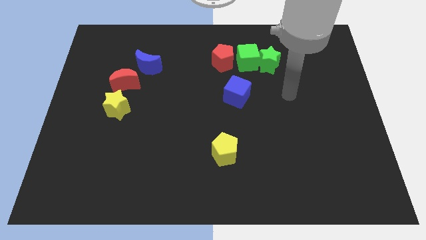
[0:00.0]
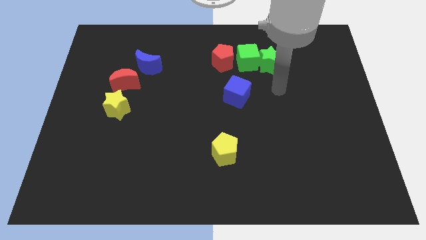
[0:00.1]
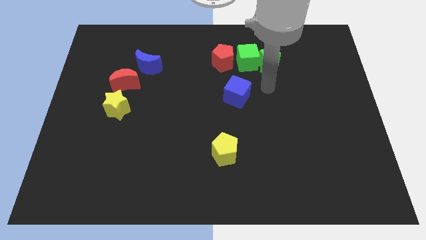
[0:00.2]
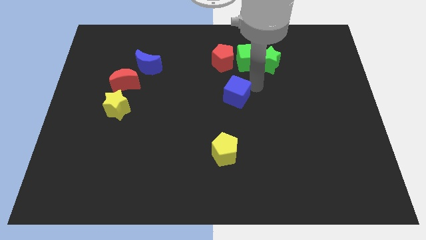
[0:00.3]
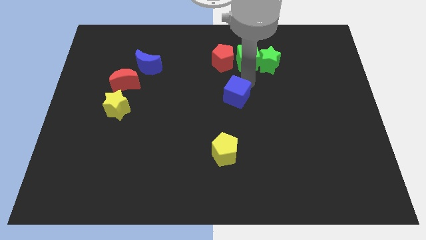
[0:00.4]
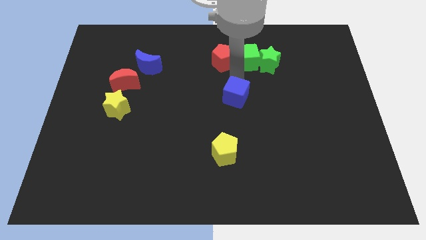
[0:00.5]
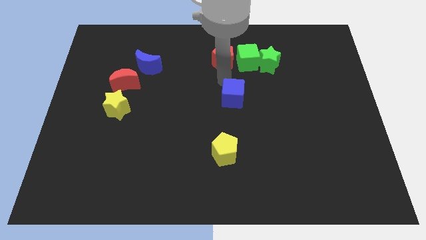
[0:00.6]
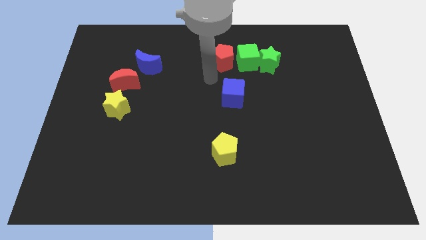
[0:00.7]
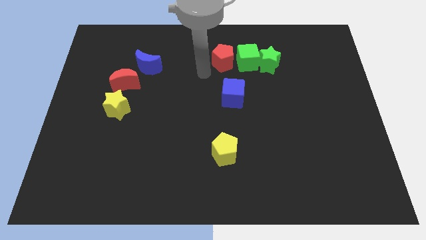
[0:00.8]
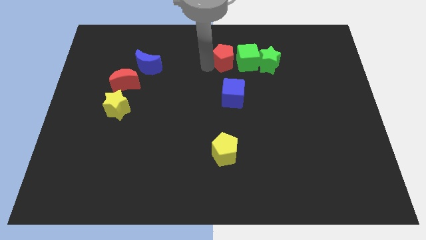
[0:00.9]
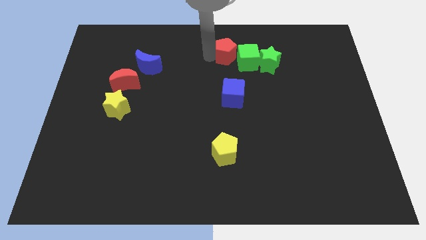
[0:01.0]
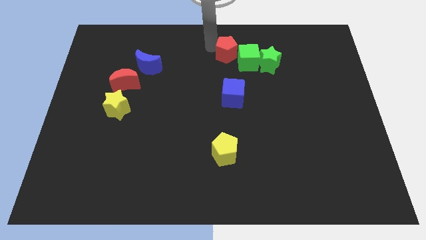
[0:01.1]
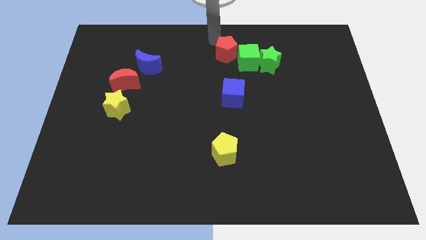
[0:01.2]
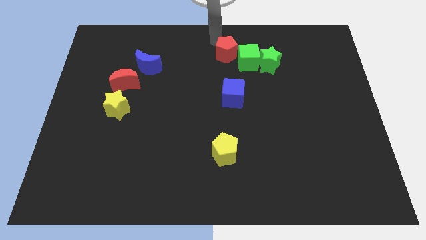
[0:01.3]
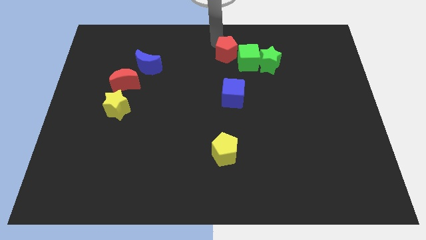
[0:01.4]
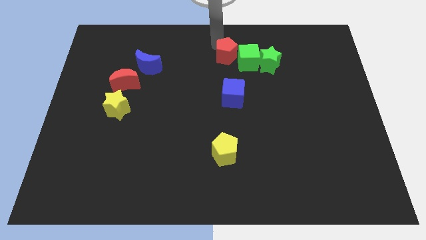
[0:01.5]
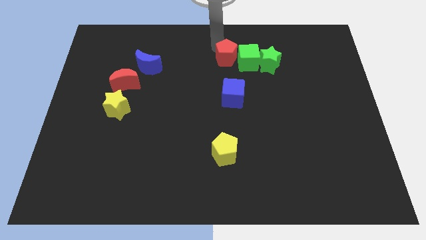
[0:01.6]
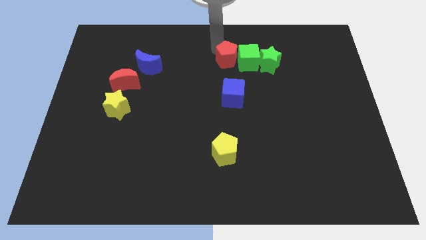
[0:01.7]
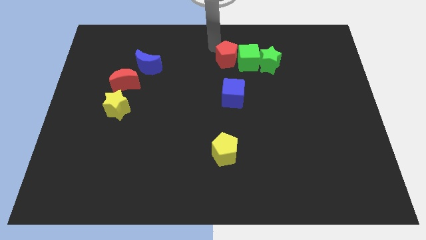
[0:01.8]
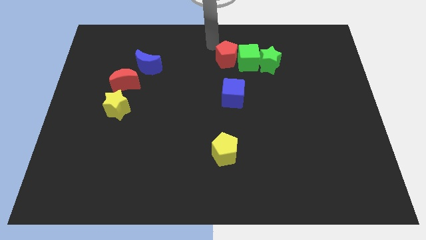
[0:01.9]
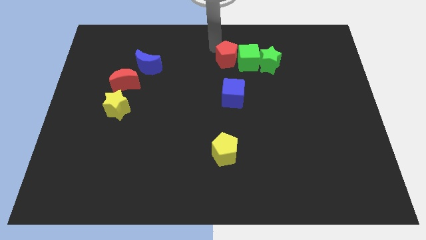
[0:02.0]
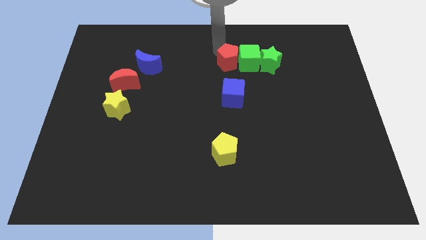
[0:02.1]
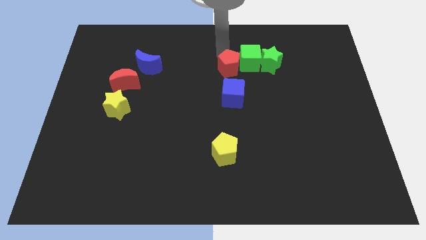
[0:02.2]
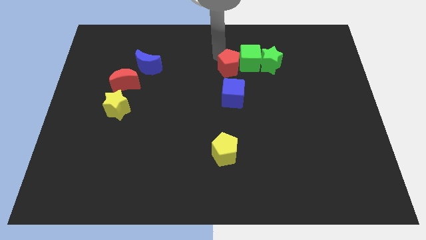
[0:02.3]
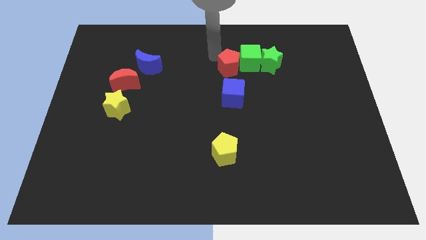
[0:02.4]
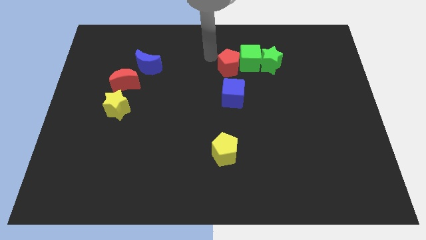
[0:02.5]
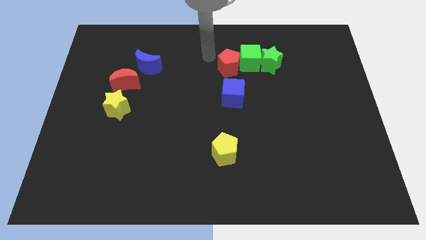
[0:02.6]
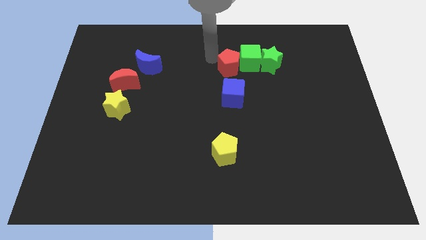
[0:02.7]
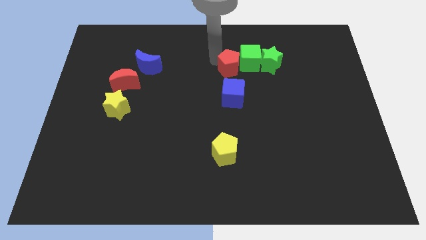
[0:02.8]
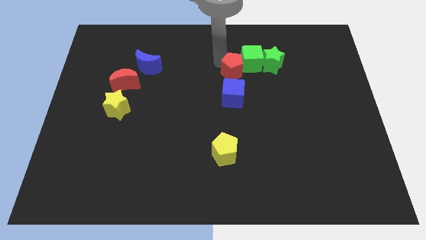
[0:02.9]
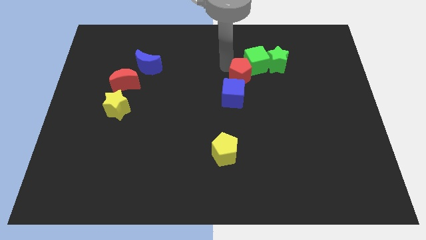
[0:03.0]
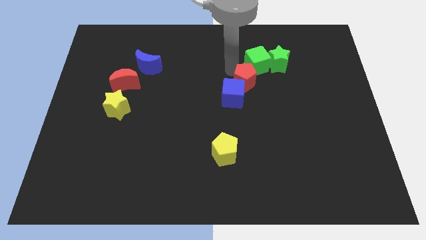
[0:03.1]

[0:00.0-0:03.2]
slightly slide the red pentagon diagonally downwards and right

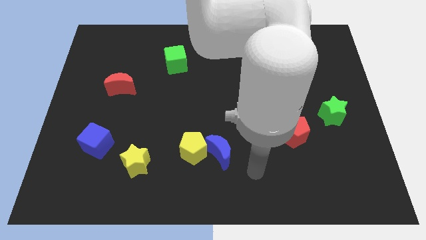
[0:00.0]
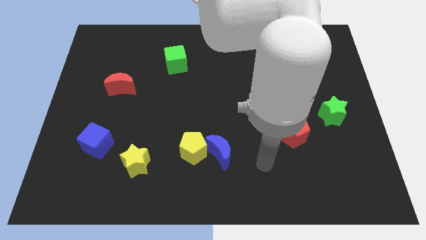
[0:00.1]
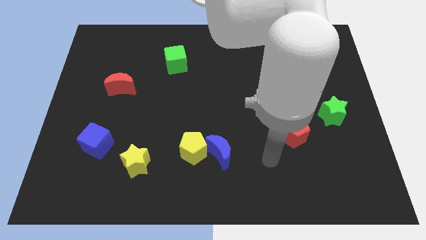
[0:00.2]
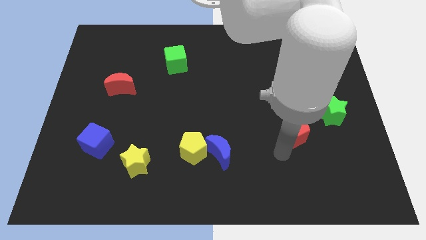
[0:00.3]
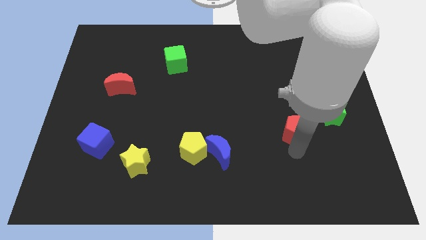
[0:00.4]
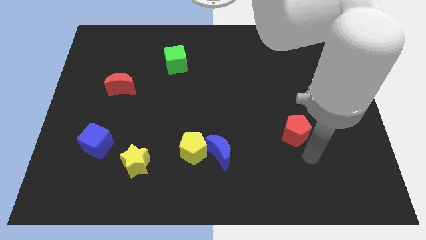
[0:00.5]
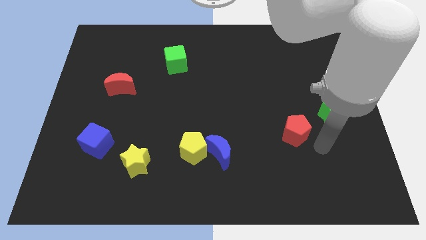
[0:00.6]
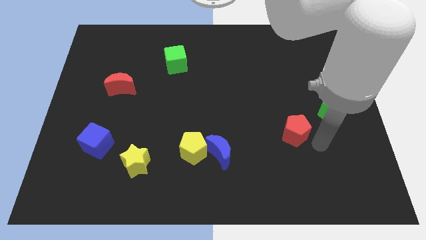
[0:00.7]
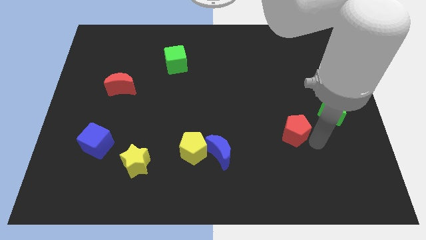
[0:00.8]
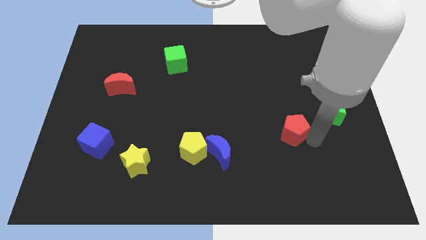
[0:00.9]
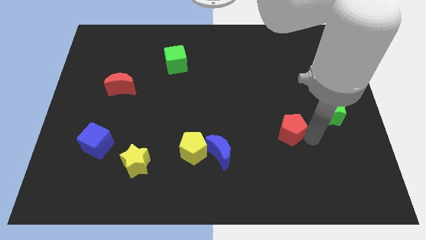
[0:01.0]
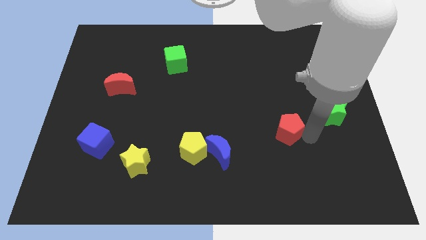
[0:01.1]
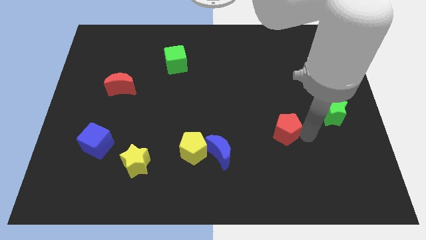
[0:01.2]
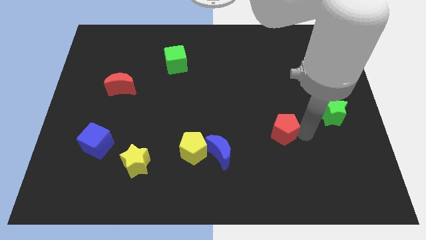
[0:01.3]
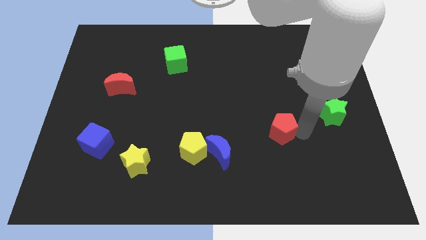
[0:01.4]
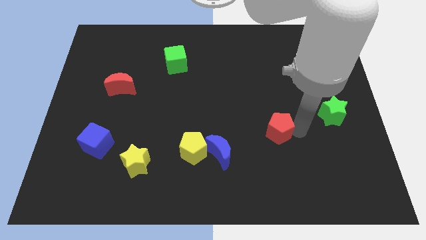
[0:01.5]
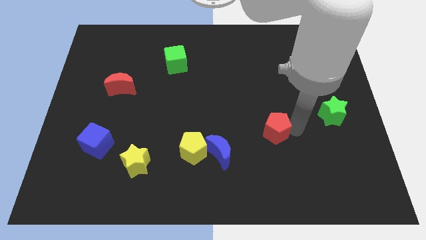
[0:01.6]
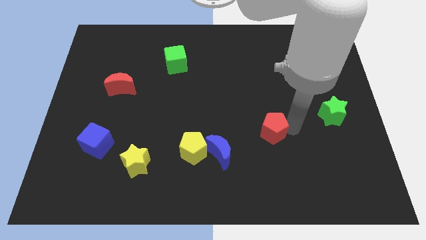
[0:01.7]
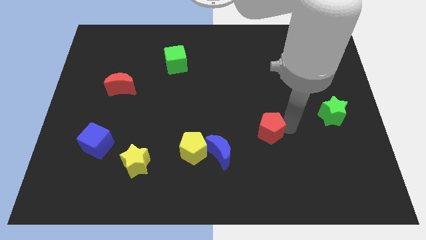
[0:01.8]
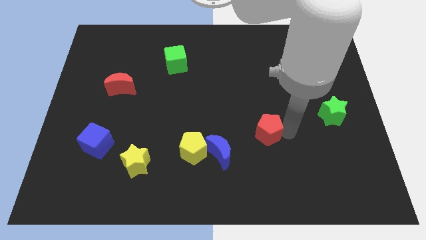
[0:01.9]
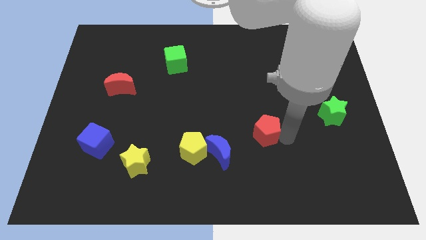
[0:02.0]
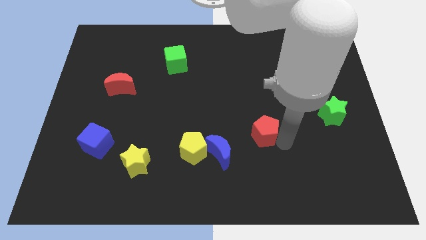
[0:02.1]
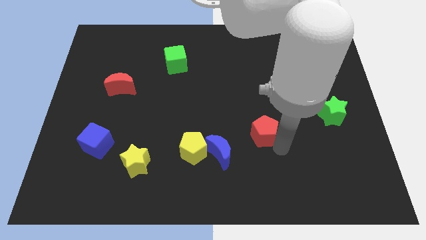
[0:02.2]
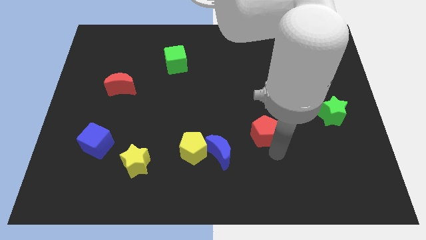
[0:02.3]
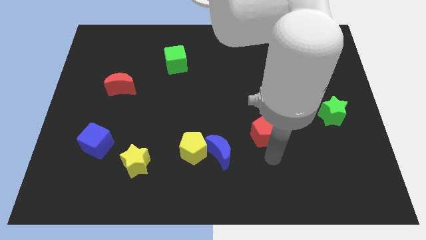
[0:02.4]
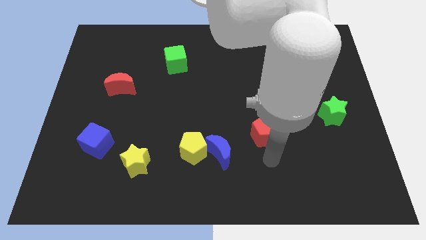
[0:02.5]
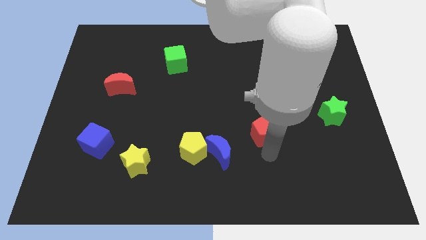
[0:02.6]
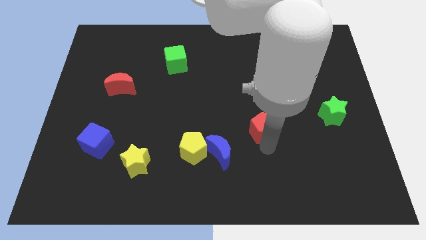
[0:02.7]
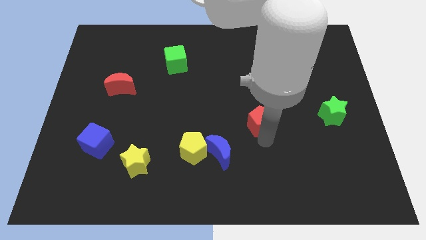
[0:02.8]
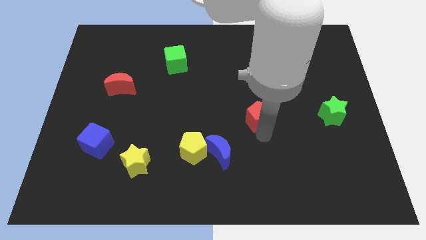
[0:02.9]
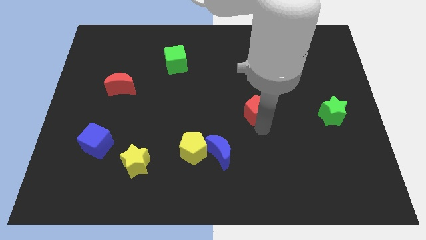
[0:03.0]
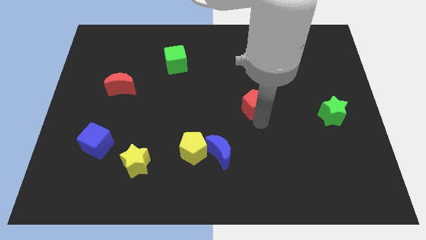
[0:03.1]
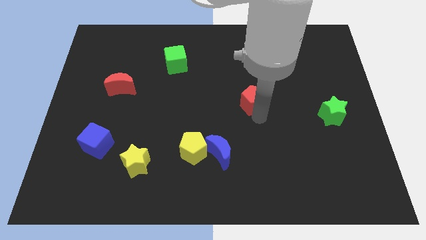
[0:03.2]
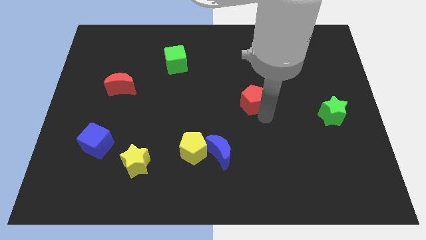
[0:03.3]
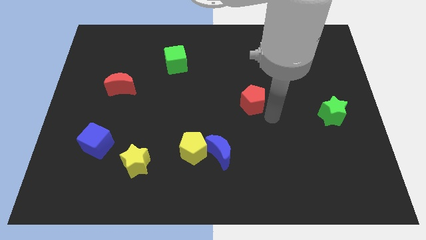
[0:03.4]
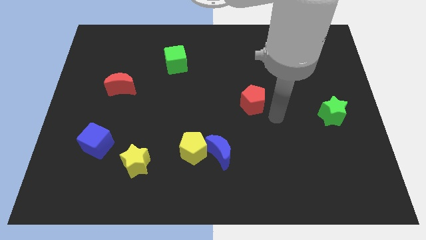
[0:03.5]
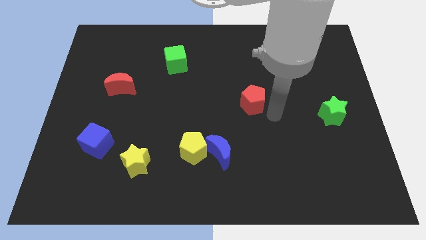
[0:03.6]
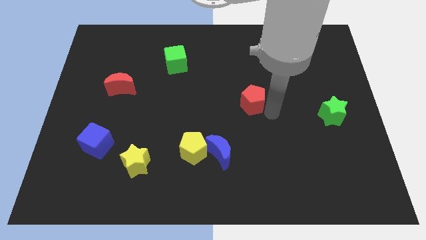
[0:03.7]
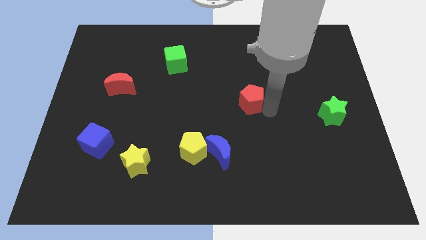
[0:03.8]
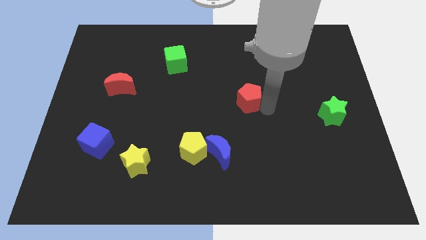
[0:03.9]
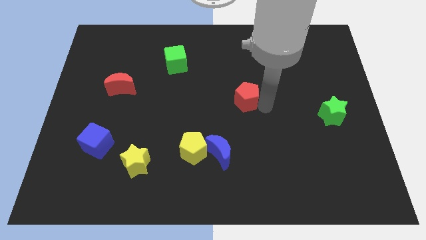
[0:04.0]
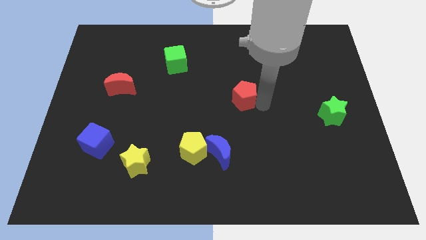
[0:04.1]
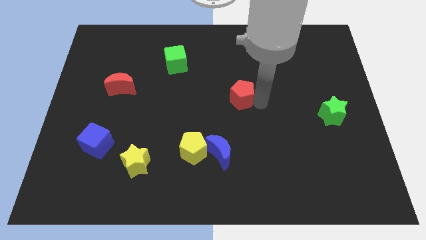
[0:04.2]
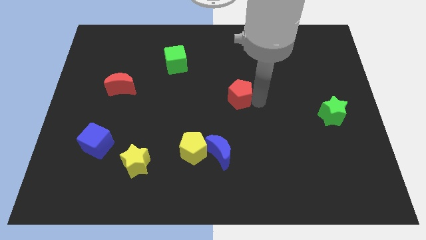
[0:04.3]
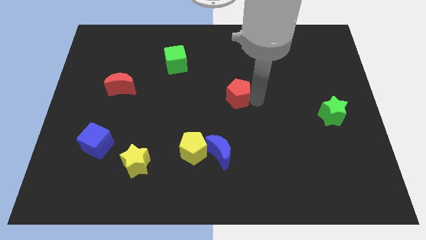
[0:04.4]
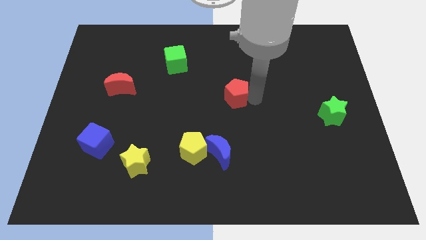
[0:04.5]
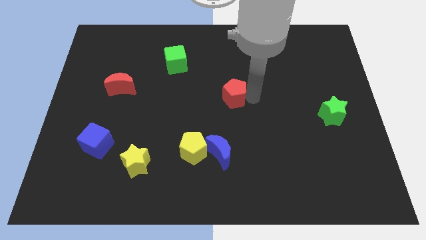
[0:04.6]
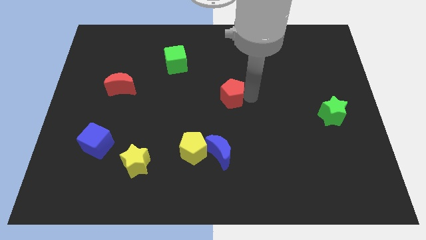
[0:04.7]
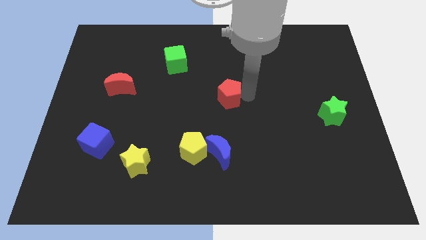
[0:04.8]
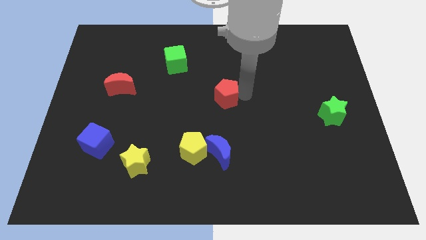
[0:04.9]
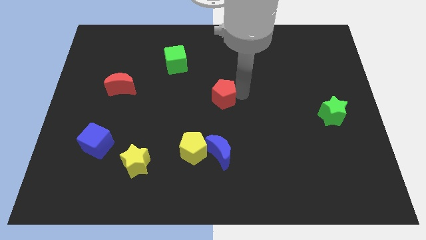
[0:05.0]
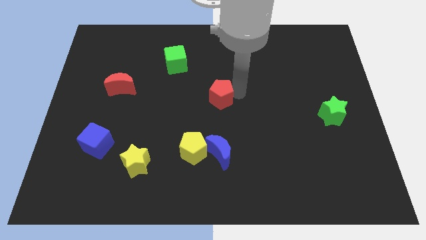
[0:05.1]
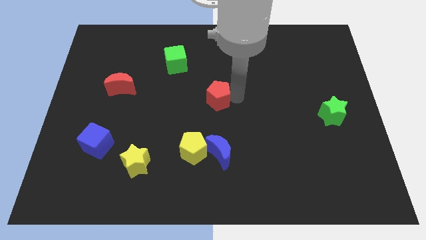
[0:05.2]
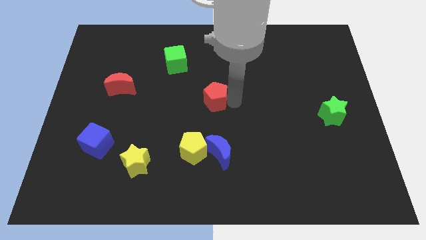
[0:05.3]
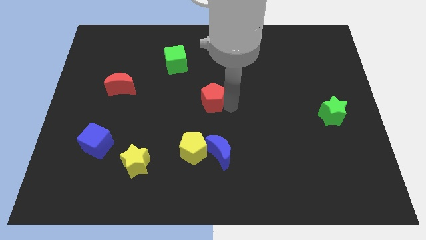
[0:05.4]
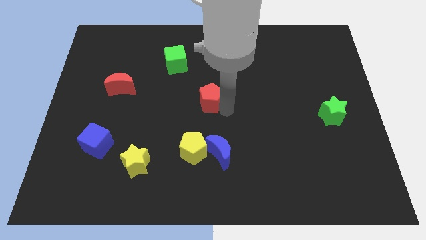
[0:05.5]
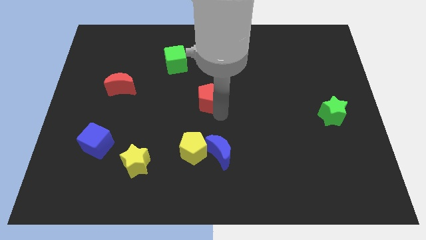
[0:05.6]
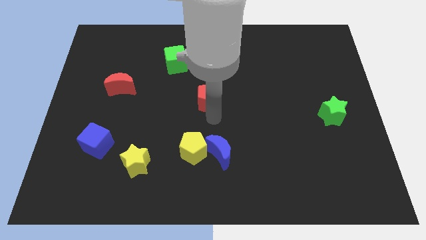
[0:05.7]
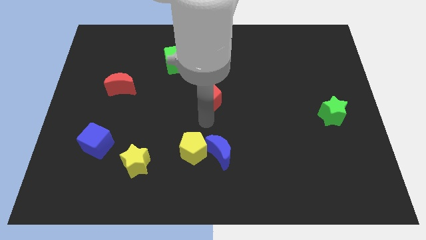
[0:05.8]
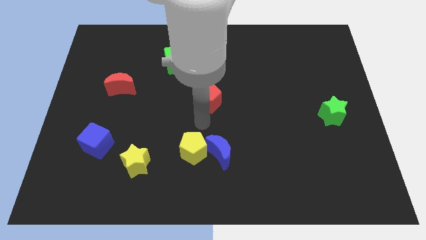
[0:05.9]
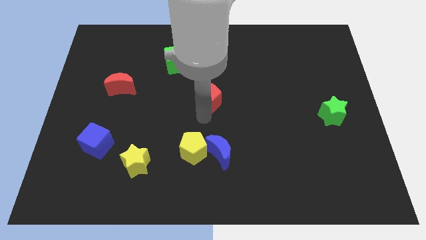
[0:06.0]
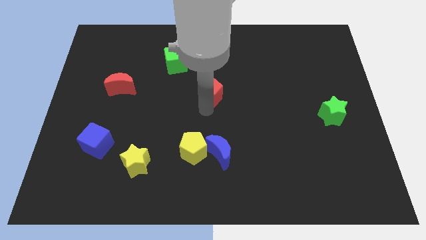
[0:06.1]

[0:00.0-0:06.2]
move the red pentagon upwards and to the left
